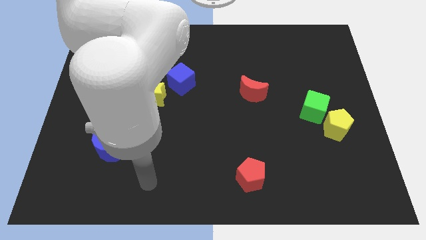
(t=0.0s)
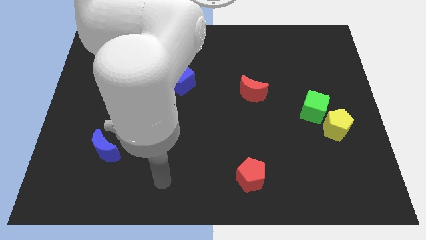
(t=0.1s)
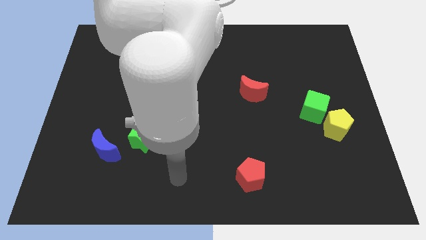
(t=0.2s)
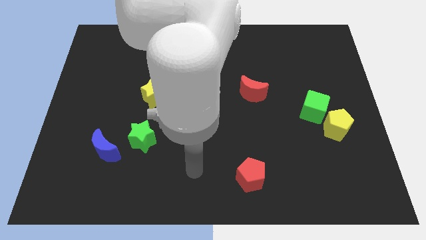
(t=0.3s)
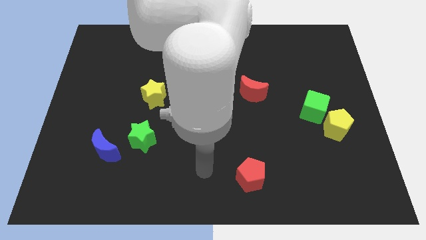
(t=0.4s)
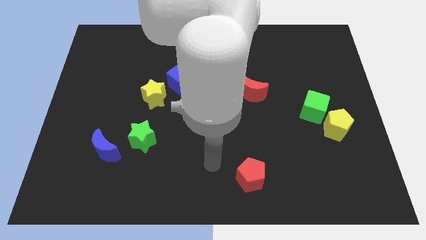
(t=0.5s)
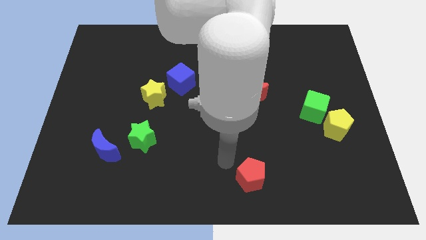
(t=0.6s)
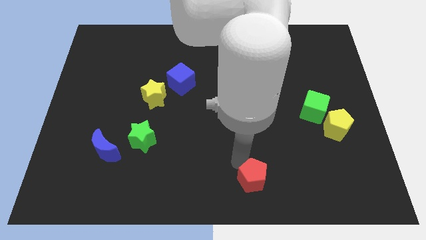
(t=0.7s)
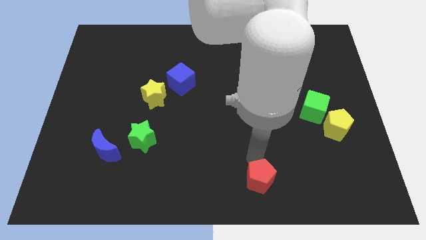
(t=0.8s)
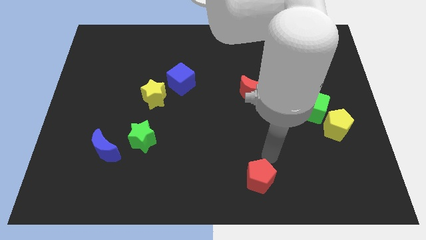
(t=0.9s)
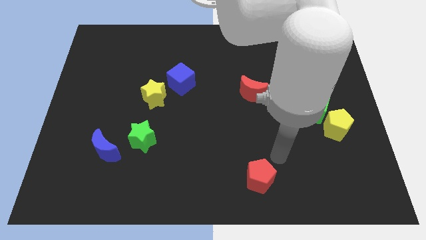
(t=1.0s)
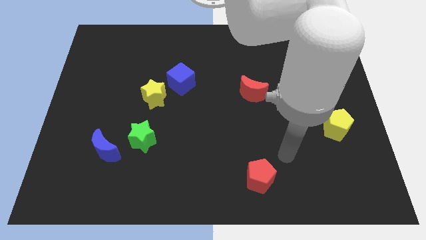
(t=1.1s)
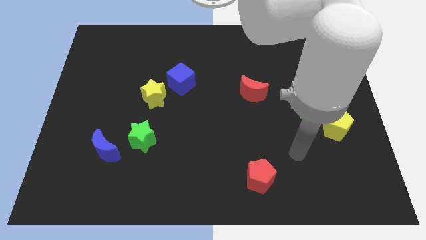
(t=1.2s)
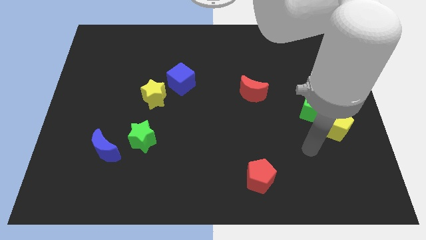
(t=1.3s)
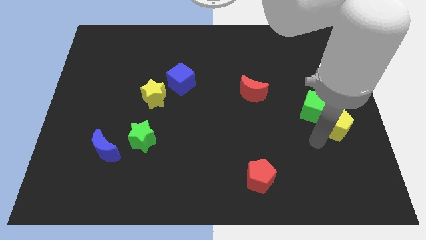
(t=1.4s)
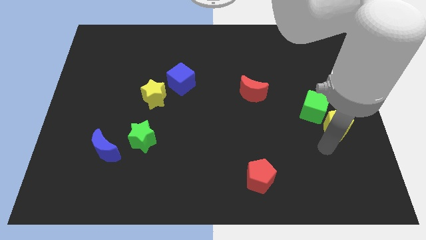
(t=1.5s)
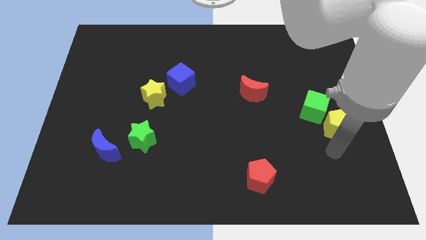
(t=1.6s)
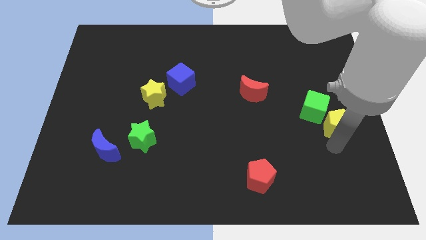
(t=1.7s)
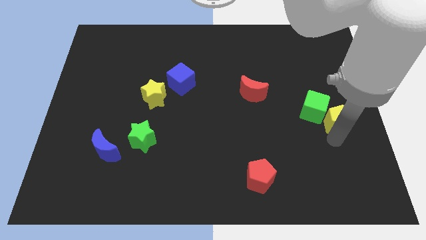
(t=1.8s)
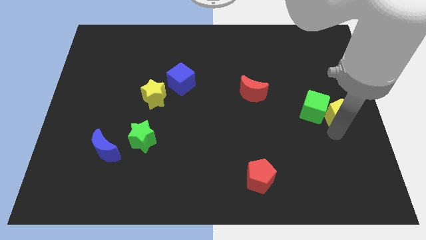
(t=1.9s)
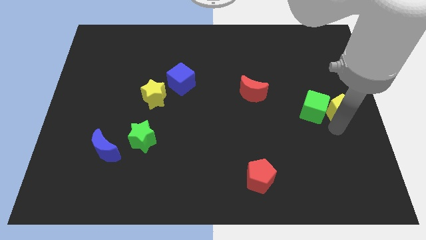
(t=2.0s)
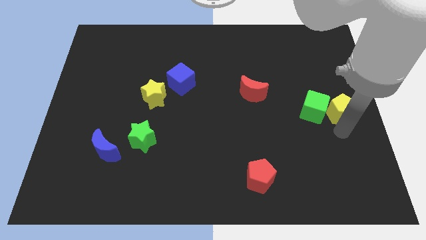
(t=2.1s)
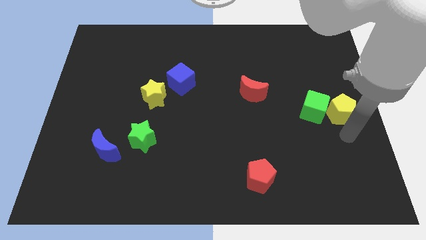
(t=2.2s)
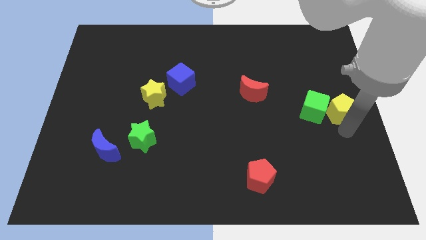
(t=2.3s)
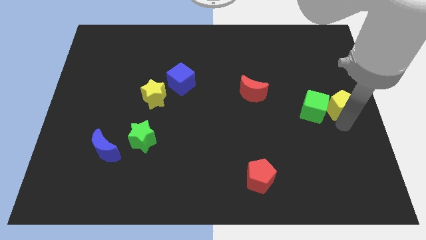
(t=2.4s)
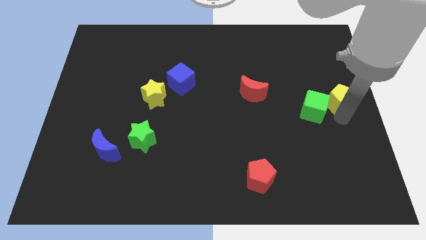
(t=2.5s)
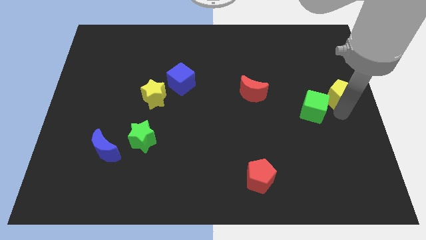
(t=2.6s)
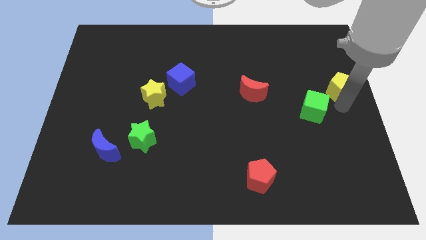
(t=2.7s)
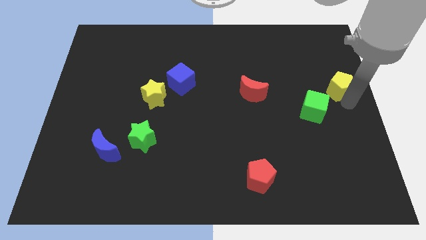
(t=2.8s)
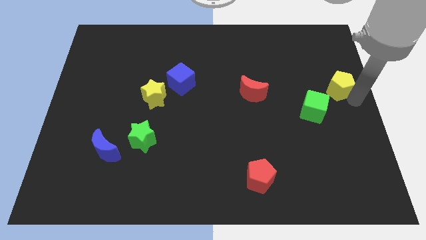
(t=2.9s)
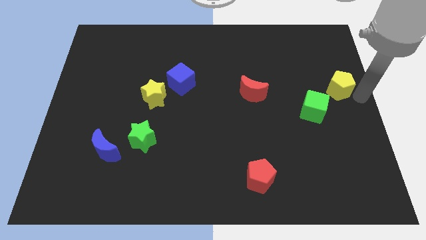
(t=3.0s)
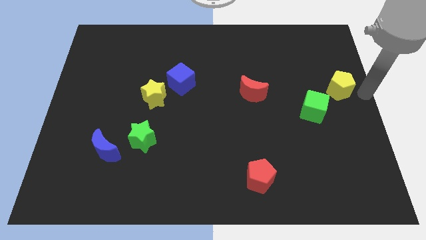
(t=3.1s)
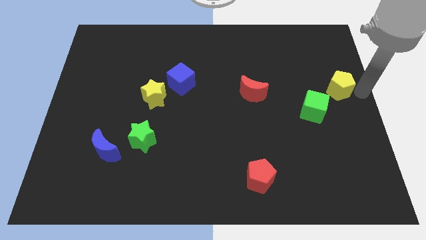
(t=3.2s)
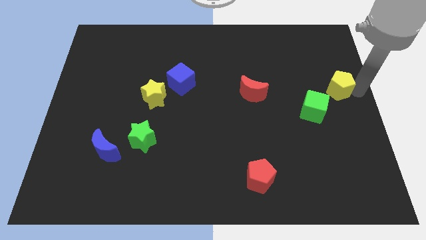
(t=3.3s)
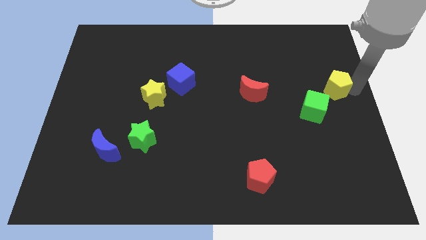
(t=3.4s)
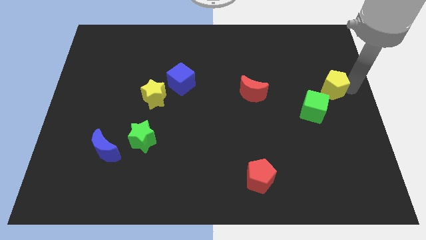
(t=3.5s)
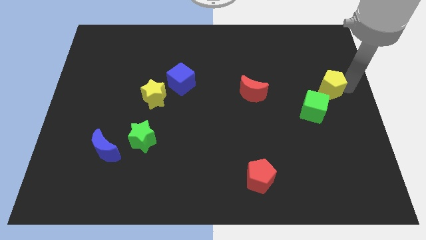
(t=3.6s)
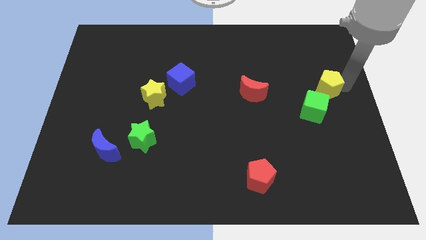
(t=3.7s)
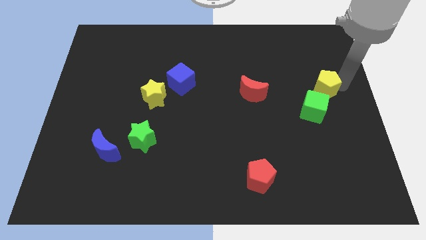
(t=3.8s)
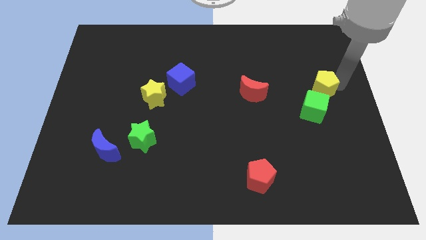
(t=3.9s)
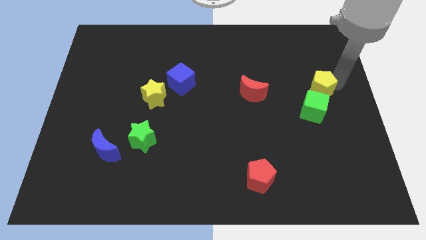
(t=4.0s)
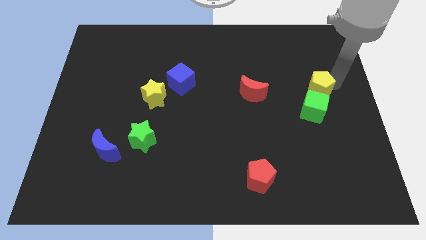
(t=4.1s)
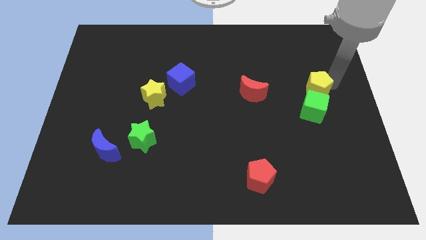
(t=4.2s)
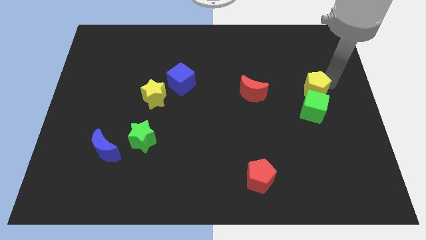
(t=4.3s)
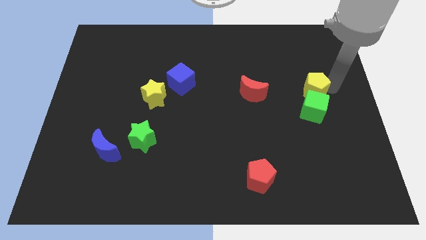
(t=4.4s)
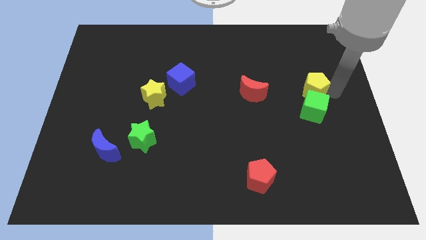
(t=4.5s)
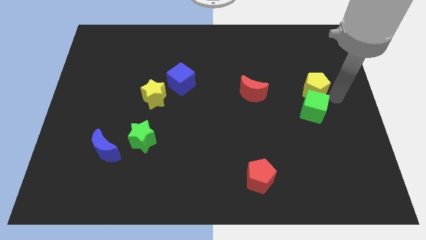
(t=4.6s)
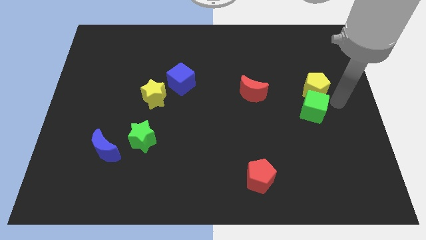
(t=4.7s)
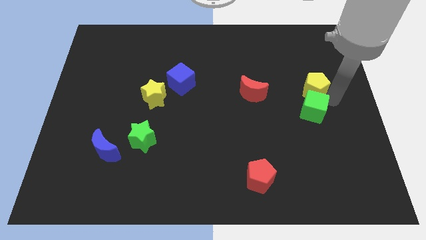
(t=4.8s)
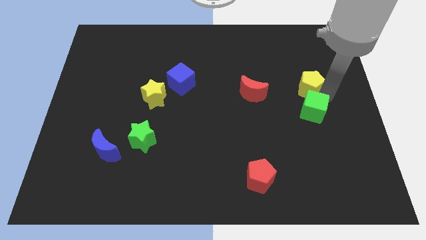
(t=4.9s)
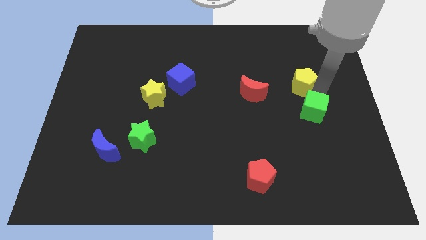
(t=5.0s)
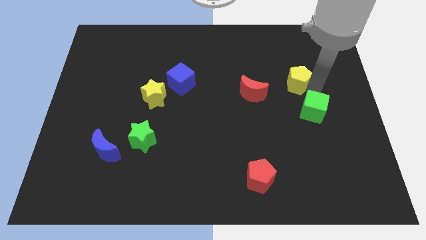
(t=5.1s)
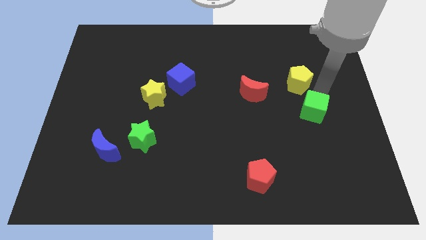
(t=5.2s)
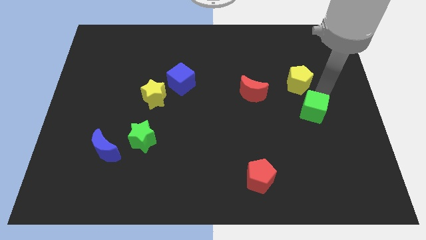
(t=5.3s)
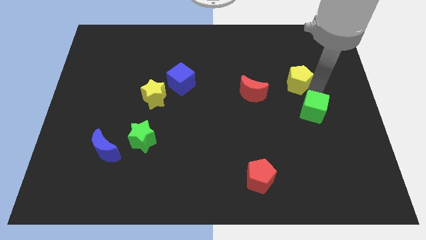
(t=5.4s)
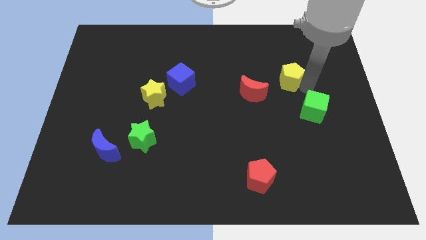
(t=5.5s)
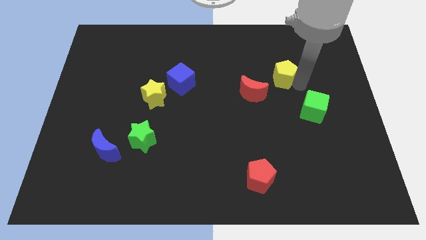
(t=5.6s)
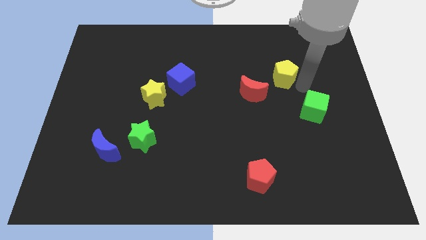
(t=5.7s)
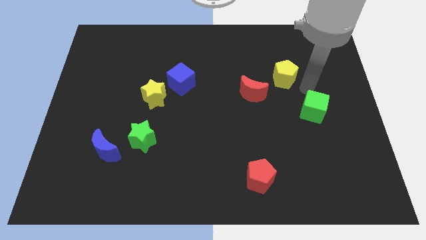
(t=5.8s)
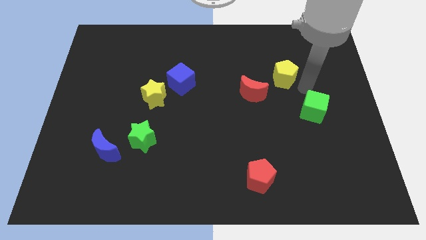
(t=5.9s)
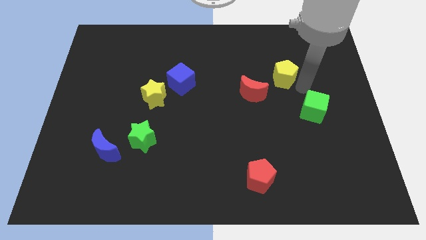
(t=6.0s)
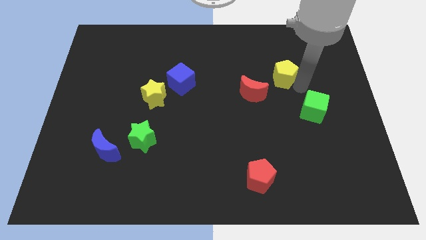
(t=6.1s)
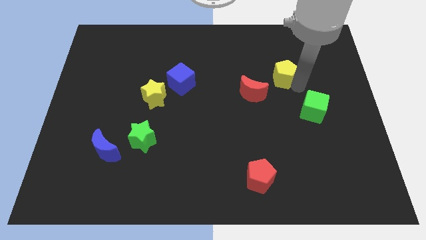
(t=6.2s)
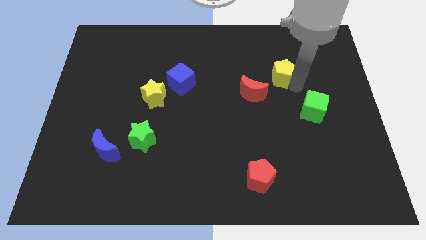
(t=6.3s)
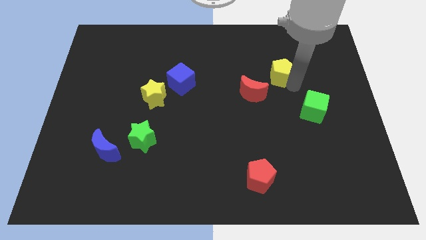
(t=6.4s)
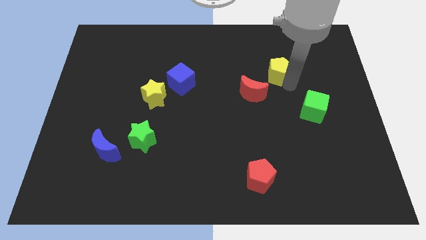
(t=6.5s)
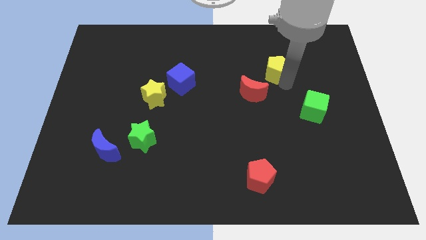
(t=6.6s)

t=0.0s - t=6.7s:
push the yellow pentagon upwards and left

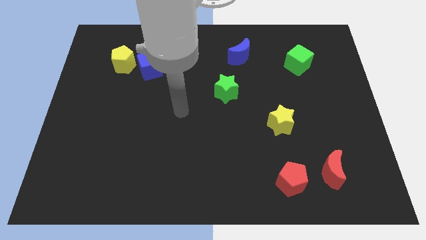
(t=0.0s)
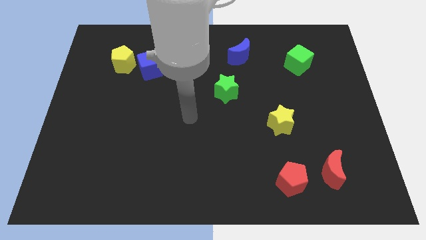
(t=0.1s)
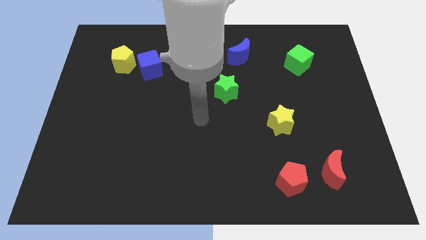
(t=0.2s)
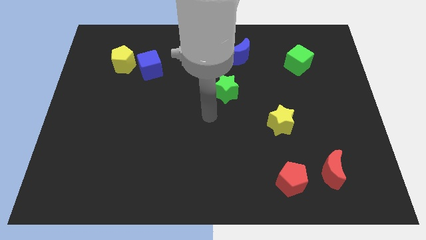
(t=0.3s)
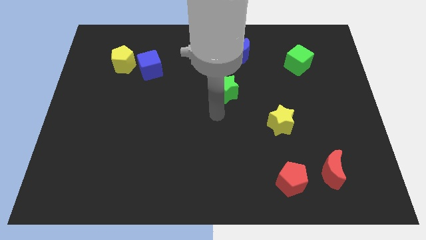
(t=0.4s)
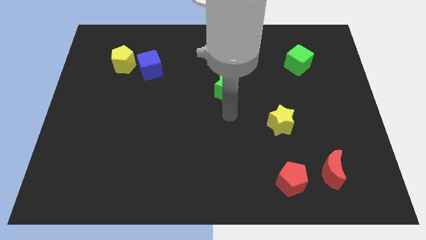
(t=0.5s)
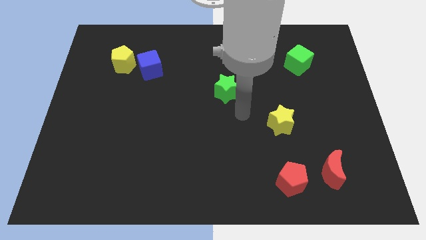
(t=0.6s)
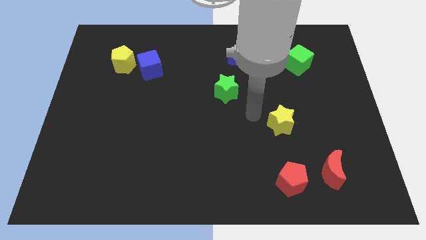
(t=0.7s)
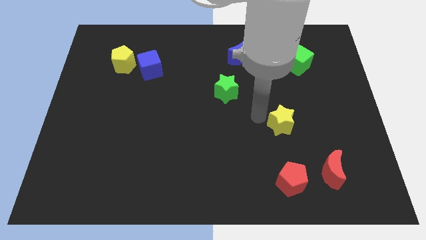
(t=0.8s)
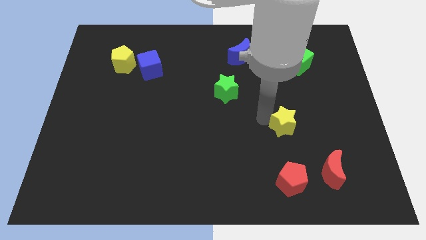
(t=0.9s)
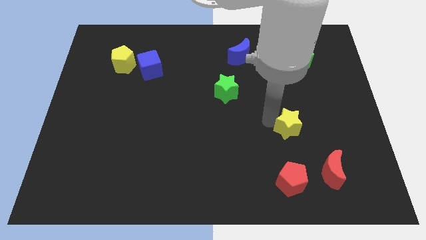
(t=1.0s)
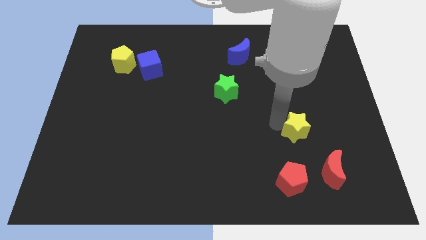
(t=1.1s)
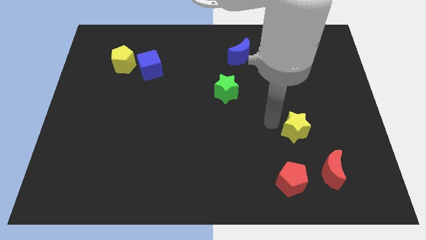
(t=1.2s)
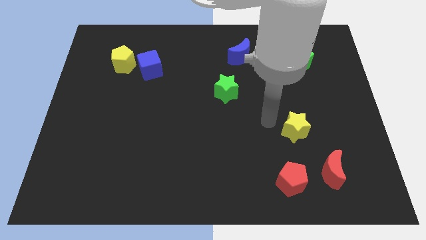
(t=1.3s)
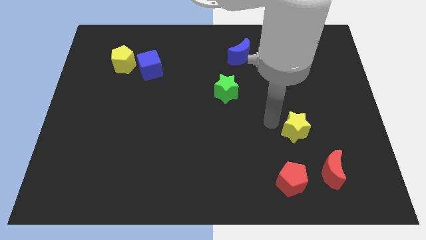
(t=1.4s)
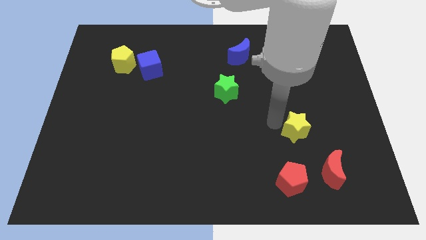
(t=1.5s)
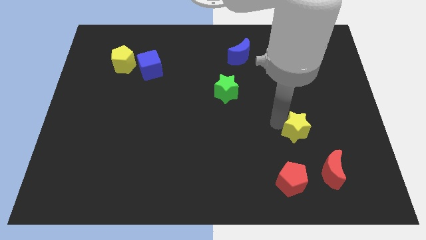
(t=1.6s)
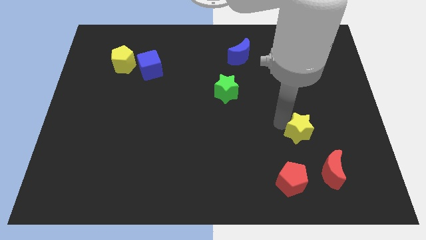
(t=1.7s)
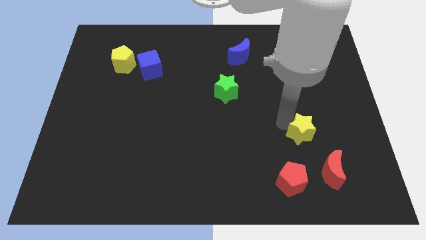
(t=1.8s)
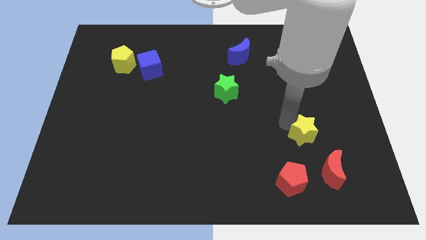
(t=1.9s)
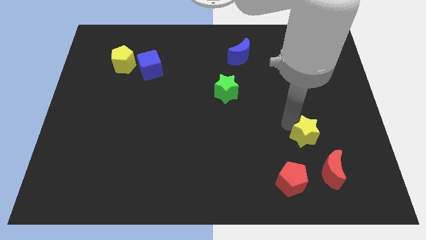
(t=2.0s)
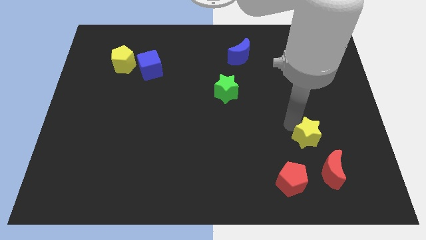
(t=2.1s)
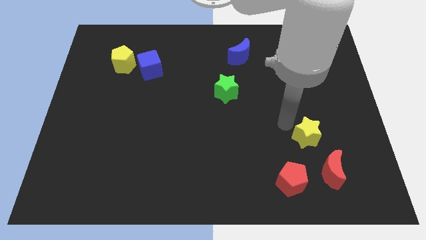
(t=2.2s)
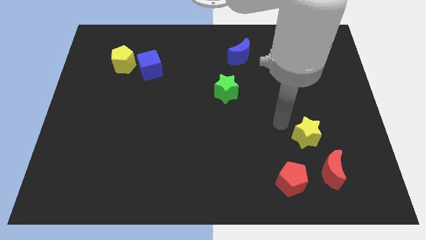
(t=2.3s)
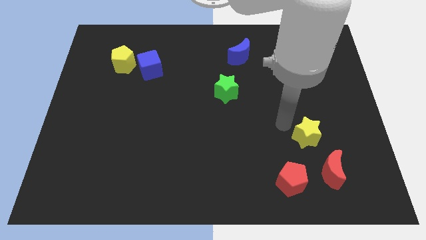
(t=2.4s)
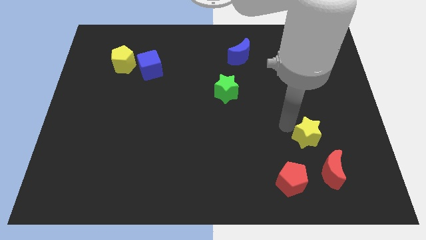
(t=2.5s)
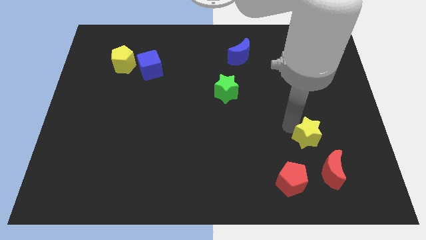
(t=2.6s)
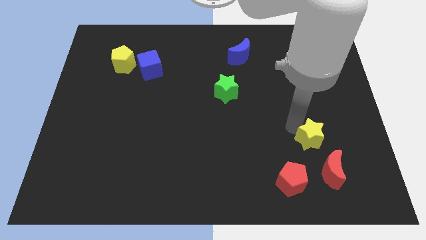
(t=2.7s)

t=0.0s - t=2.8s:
move the yellow star diagonally downwards and to the right a bit
